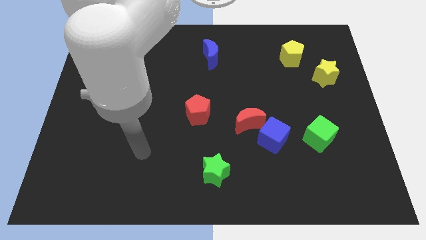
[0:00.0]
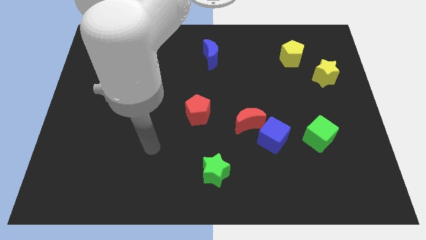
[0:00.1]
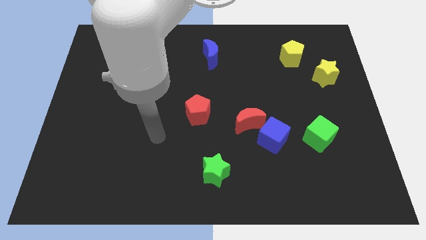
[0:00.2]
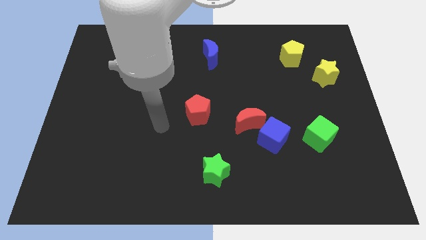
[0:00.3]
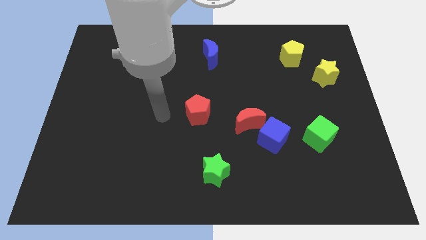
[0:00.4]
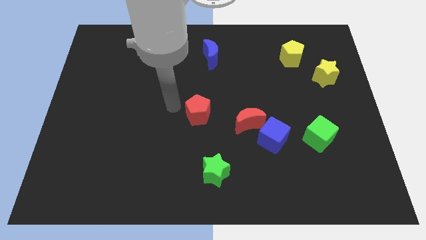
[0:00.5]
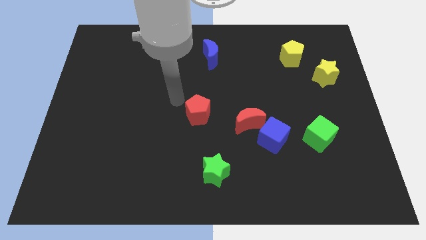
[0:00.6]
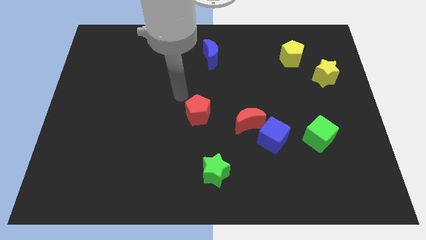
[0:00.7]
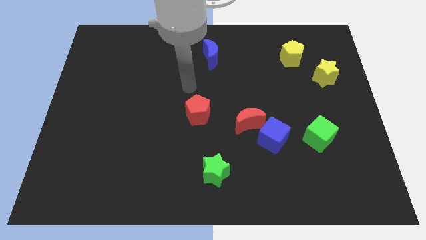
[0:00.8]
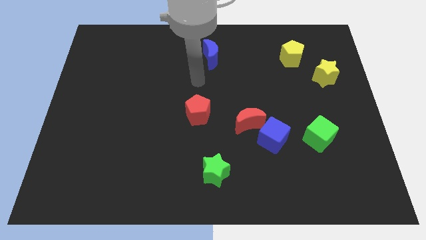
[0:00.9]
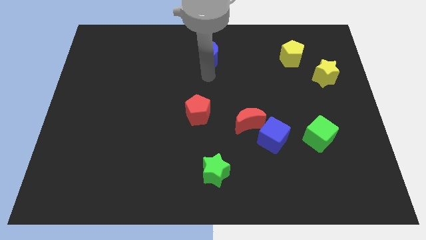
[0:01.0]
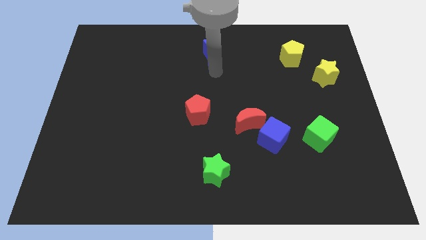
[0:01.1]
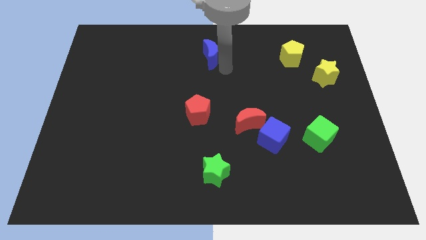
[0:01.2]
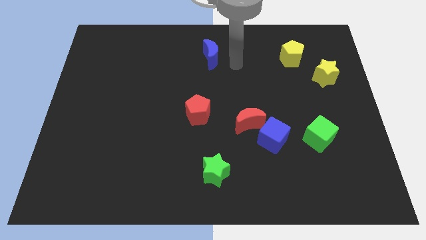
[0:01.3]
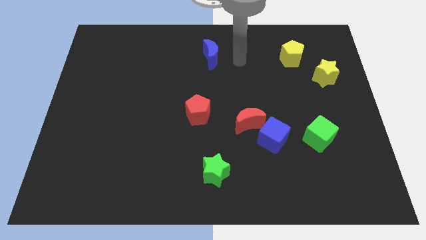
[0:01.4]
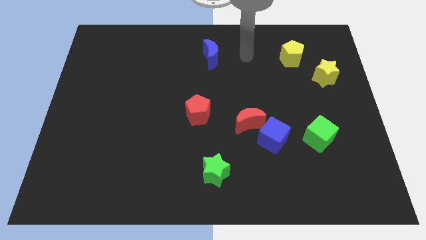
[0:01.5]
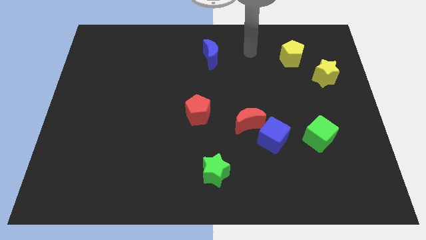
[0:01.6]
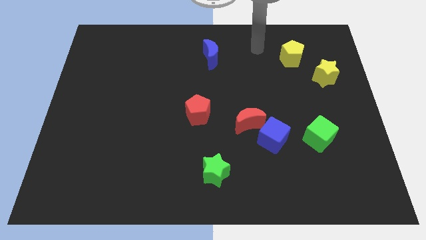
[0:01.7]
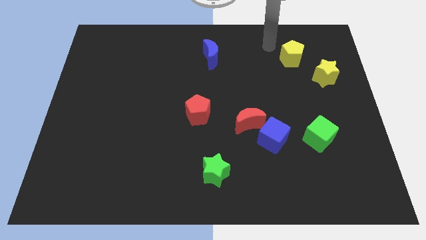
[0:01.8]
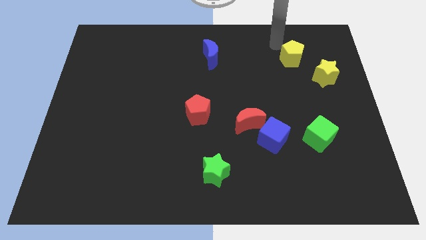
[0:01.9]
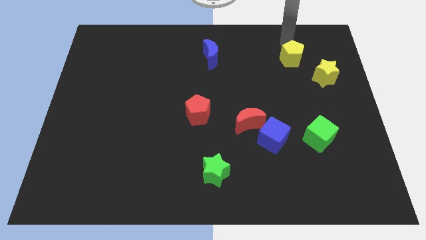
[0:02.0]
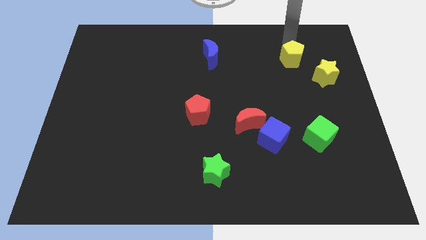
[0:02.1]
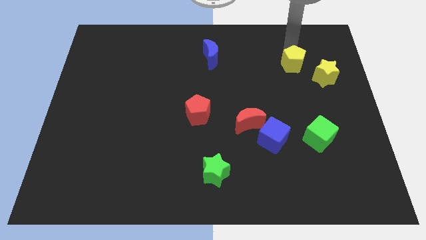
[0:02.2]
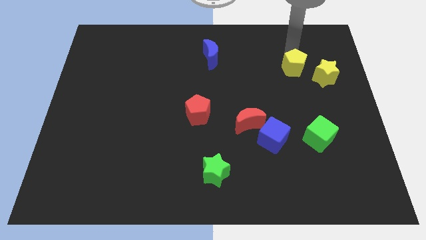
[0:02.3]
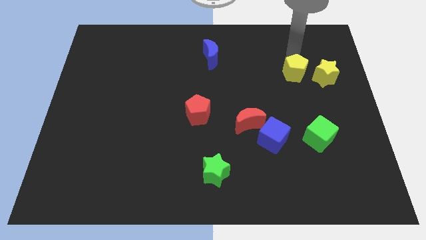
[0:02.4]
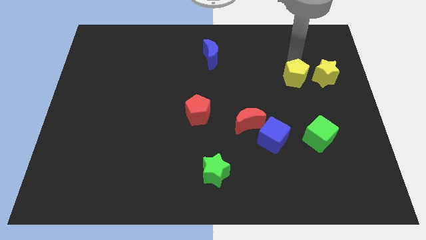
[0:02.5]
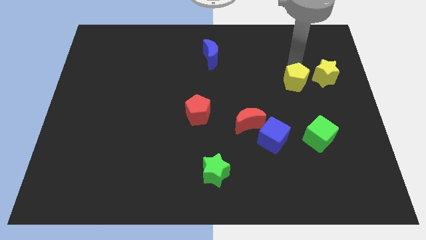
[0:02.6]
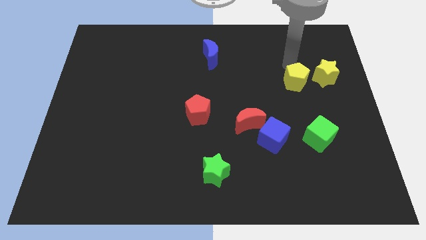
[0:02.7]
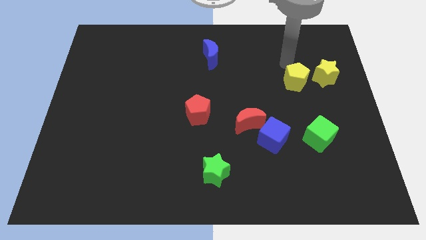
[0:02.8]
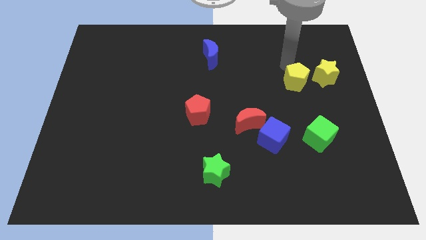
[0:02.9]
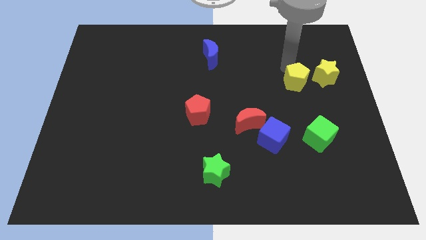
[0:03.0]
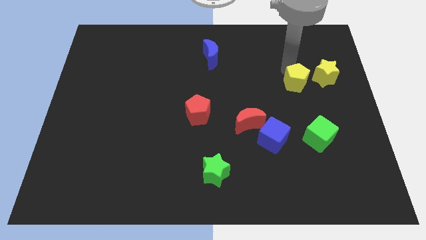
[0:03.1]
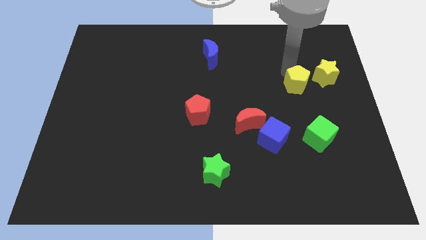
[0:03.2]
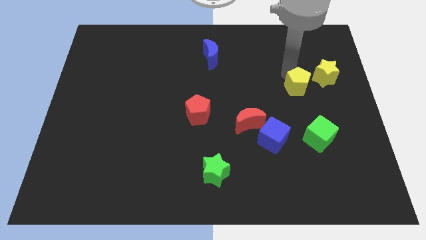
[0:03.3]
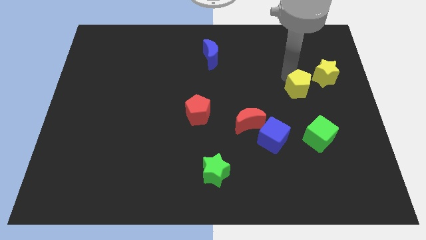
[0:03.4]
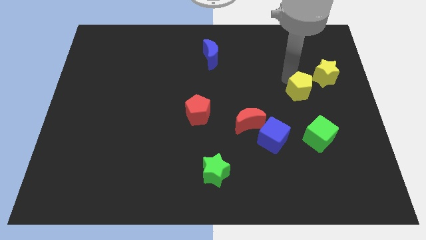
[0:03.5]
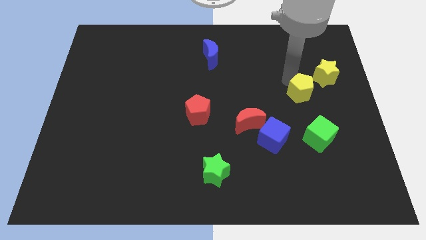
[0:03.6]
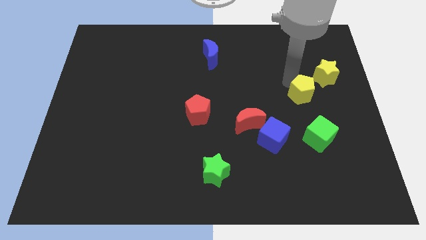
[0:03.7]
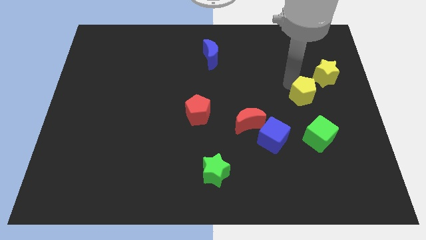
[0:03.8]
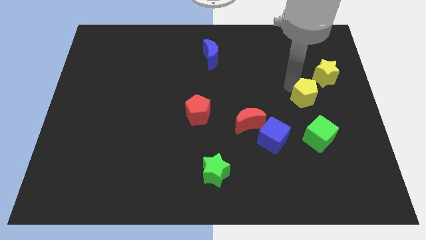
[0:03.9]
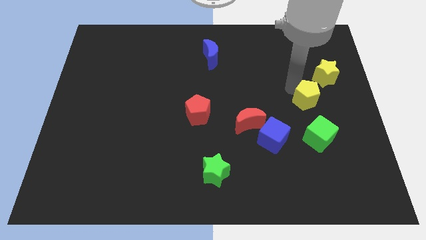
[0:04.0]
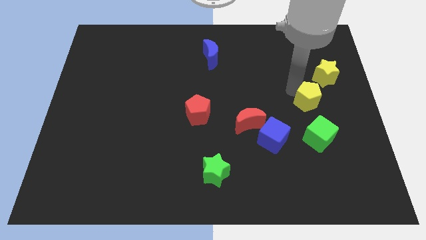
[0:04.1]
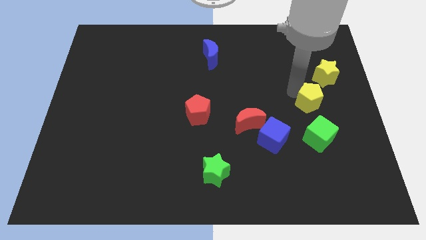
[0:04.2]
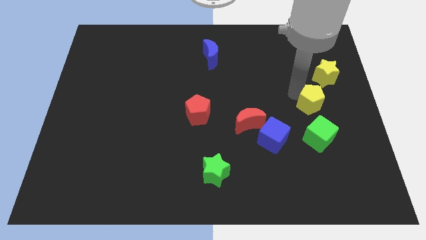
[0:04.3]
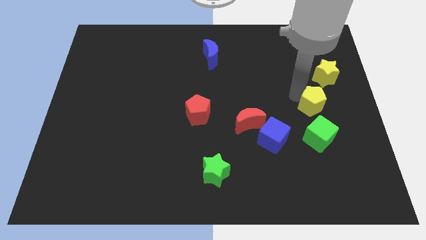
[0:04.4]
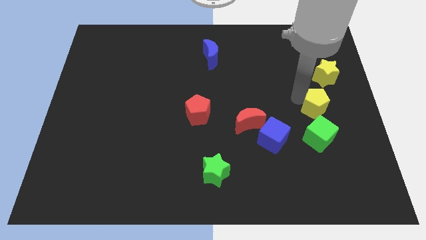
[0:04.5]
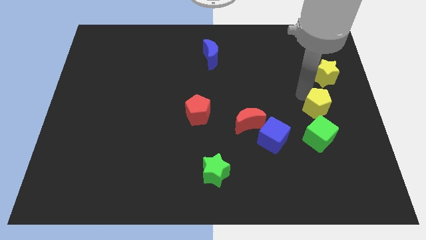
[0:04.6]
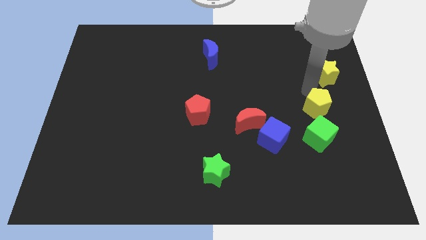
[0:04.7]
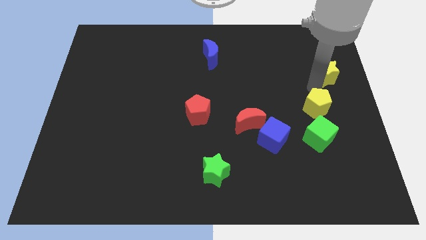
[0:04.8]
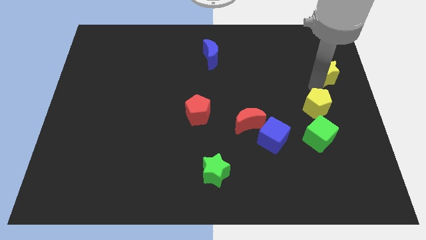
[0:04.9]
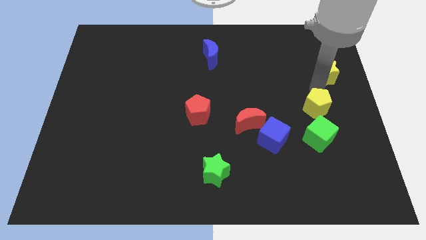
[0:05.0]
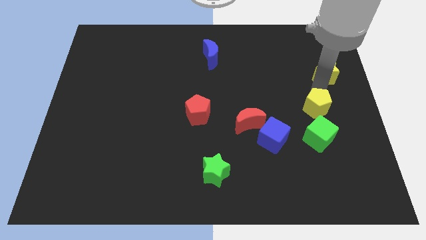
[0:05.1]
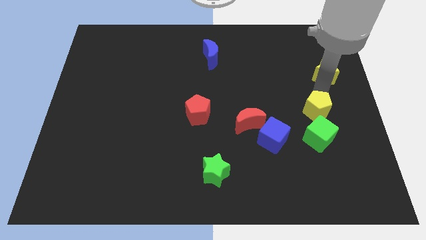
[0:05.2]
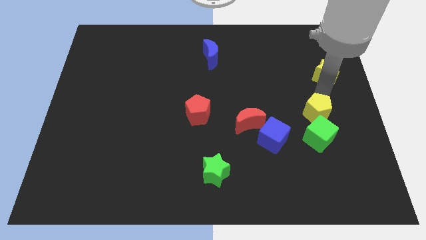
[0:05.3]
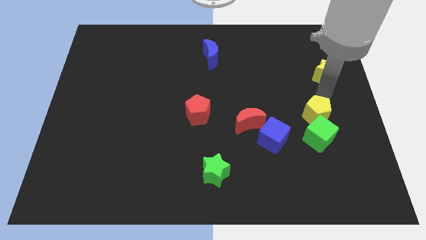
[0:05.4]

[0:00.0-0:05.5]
slide the yellow pentagon towards the green cube

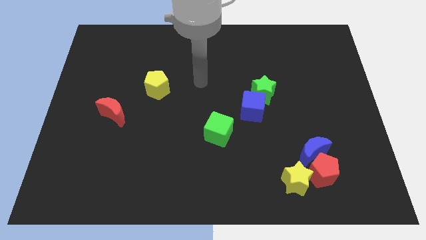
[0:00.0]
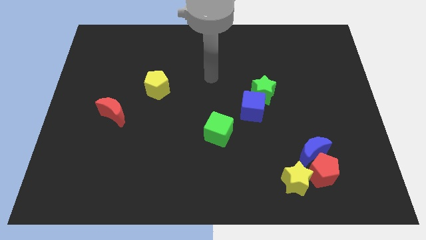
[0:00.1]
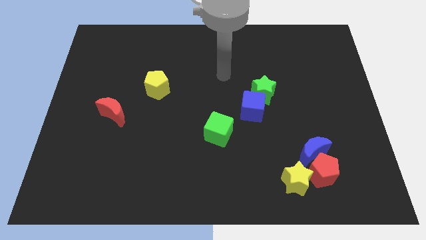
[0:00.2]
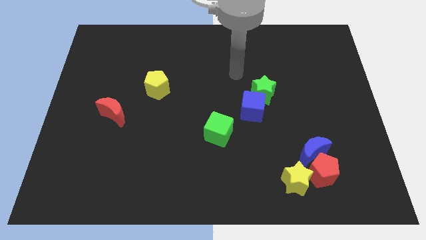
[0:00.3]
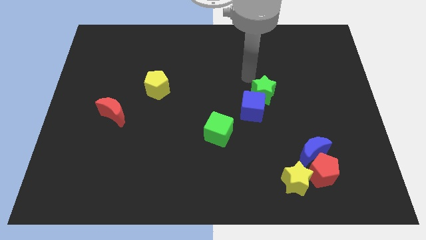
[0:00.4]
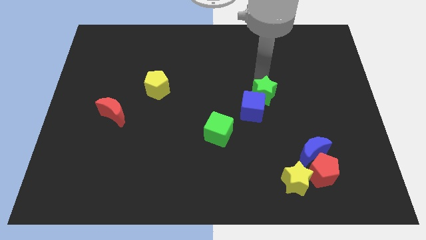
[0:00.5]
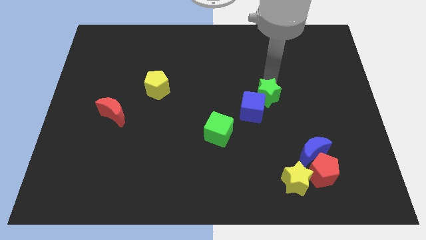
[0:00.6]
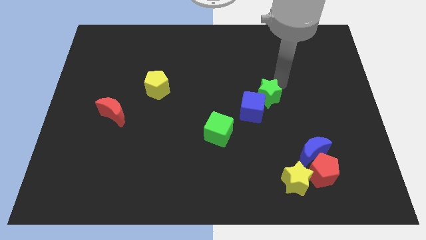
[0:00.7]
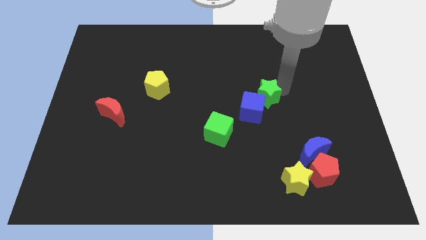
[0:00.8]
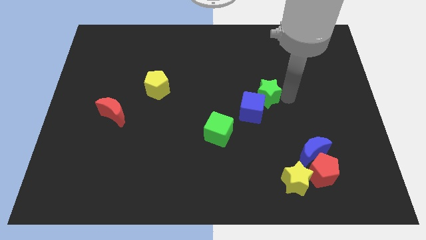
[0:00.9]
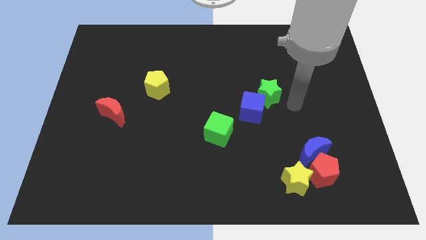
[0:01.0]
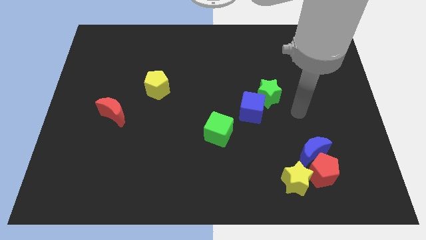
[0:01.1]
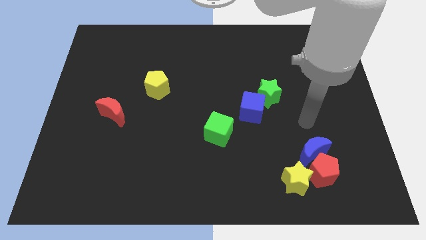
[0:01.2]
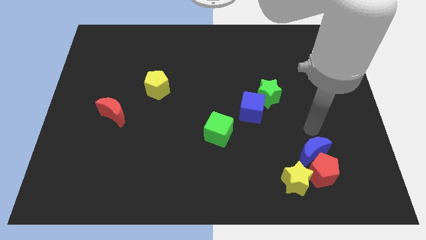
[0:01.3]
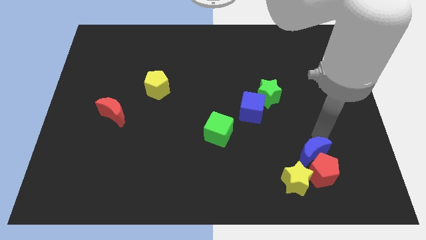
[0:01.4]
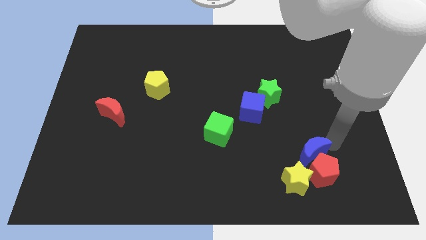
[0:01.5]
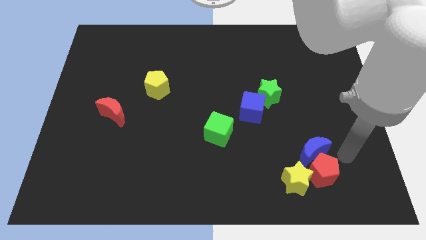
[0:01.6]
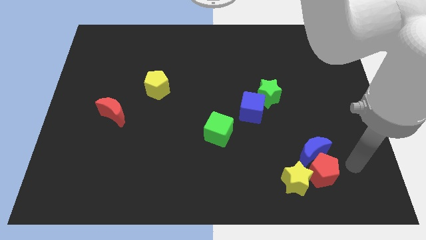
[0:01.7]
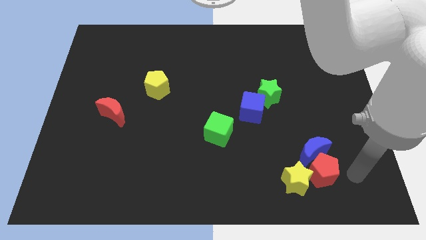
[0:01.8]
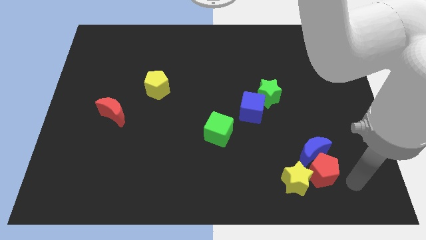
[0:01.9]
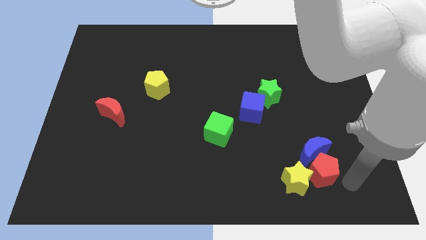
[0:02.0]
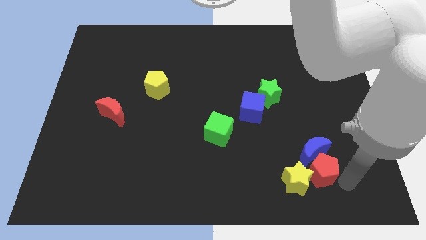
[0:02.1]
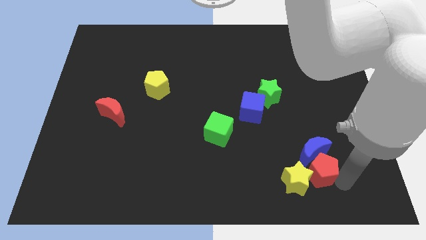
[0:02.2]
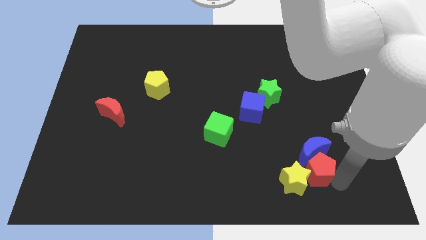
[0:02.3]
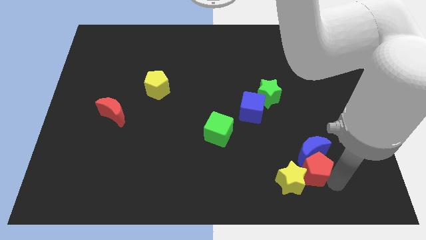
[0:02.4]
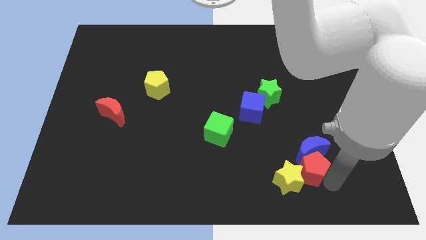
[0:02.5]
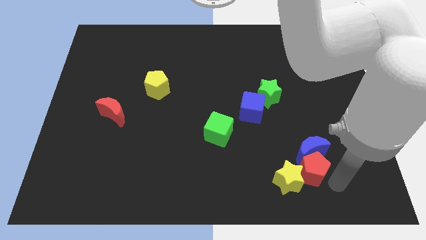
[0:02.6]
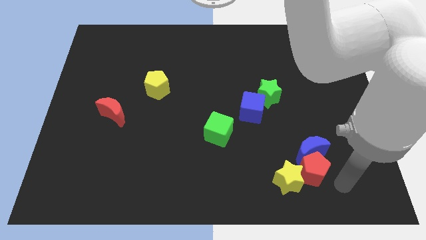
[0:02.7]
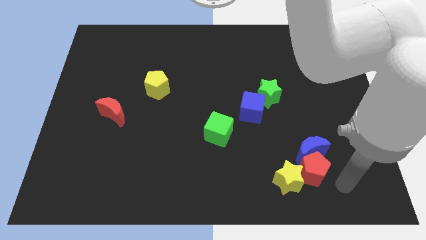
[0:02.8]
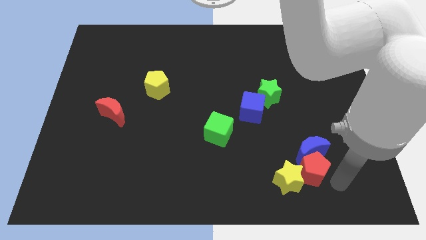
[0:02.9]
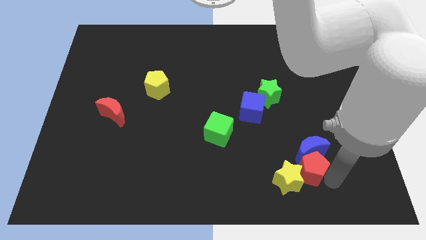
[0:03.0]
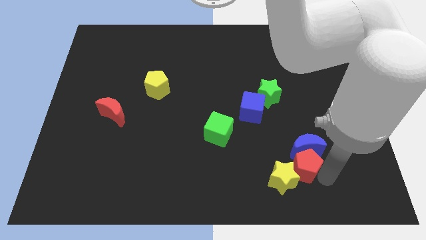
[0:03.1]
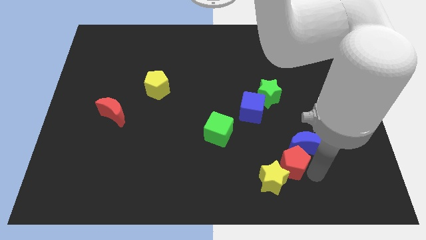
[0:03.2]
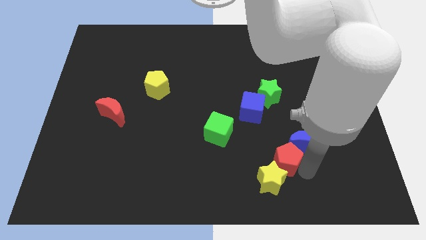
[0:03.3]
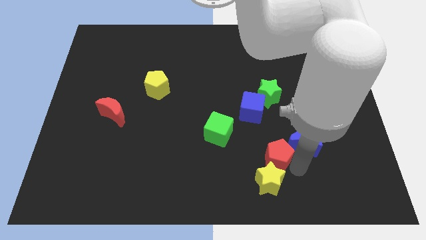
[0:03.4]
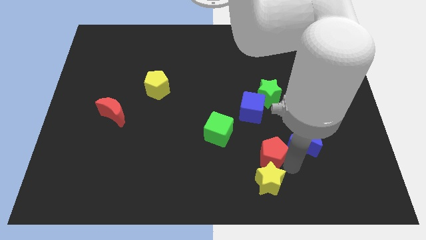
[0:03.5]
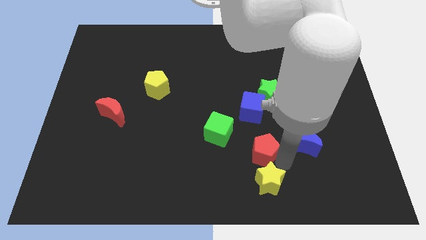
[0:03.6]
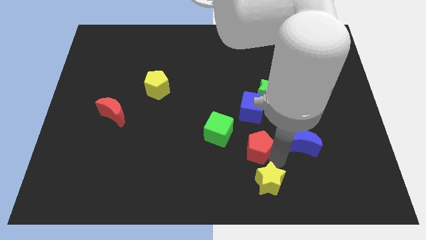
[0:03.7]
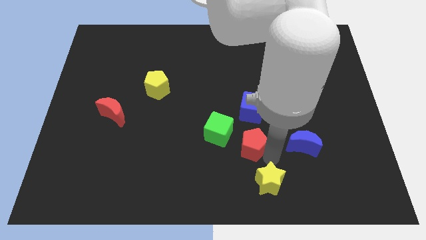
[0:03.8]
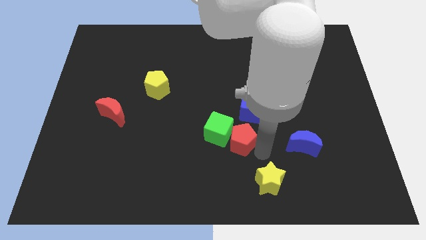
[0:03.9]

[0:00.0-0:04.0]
slide the red pentagon to the green cube
